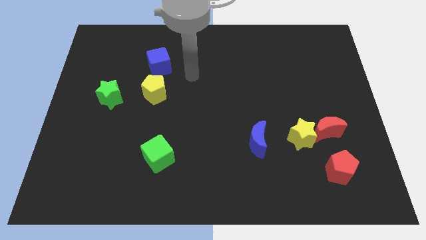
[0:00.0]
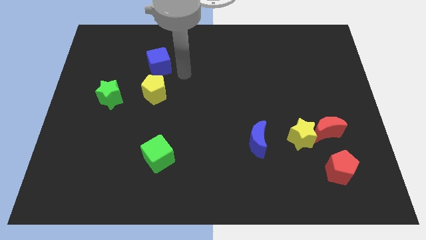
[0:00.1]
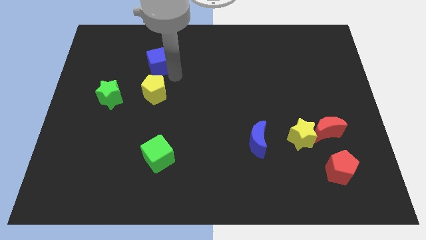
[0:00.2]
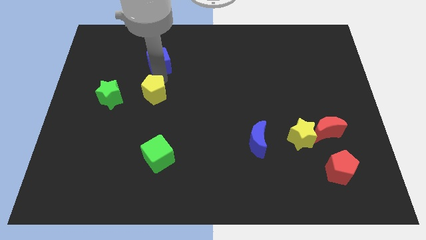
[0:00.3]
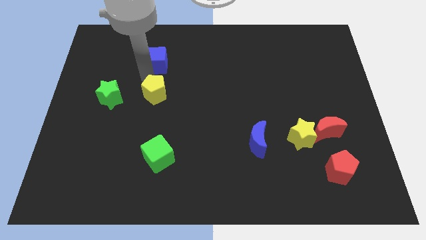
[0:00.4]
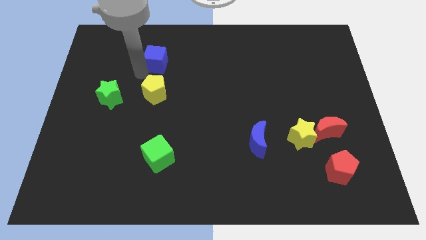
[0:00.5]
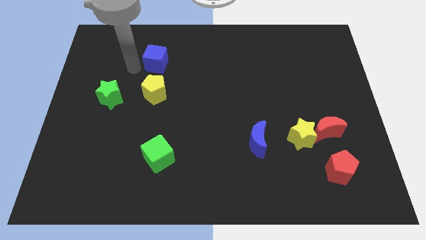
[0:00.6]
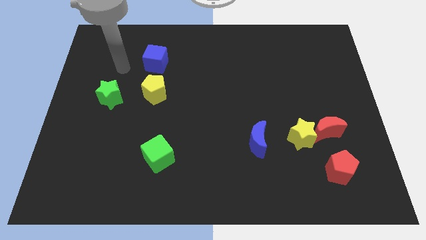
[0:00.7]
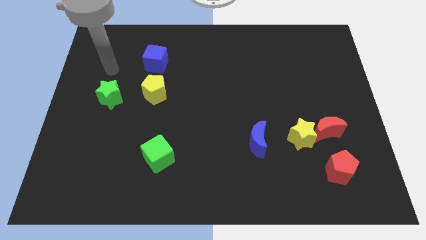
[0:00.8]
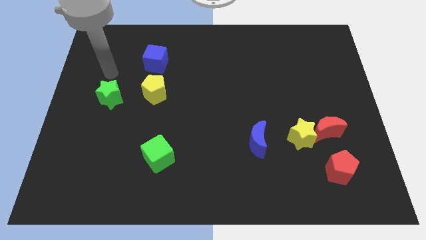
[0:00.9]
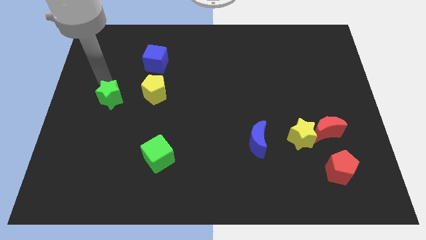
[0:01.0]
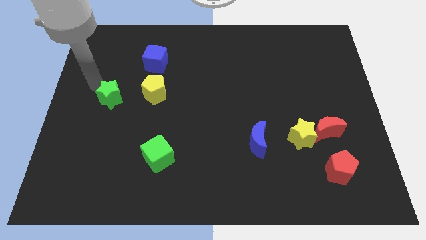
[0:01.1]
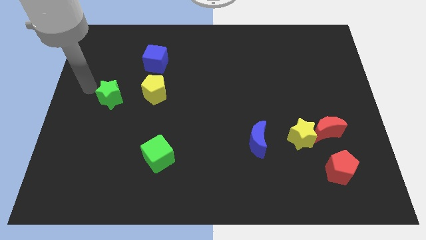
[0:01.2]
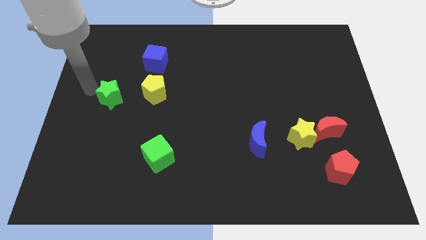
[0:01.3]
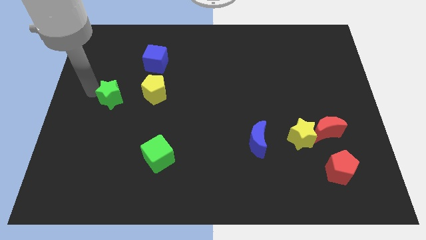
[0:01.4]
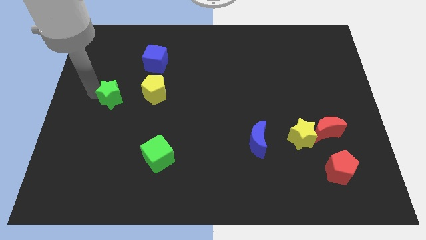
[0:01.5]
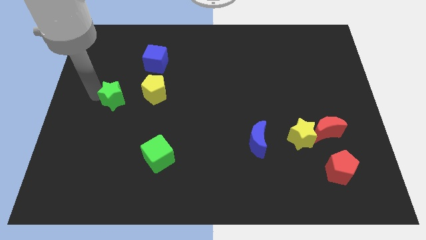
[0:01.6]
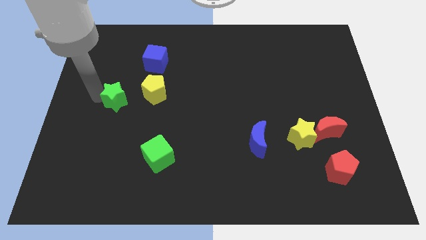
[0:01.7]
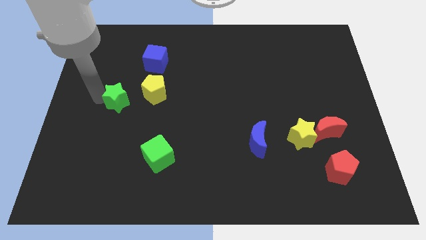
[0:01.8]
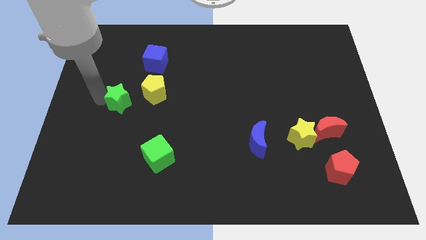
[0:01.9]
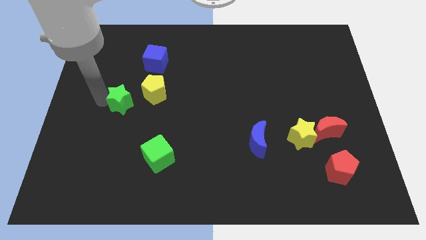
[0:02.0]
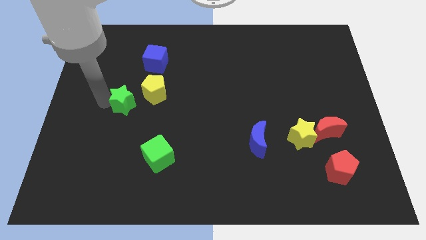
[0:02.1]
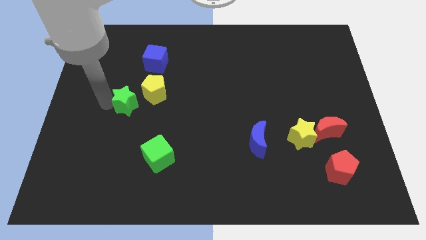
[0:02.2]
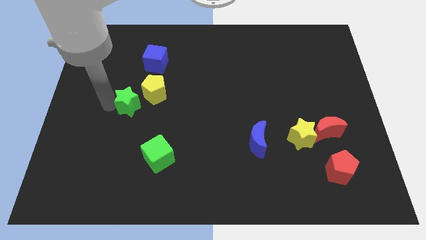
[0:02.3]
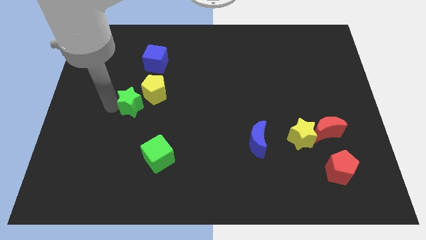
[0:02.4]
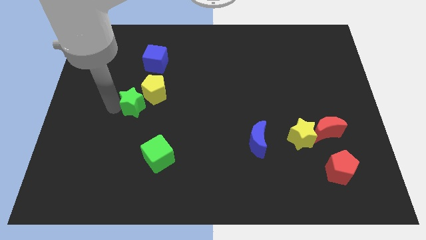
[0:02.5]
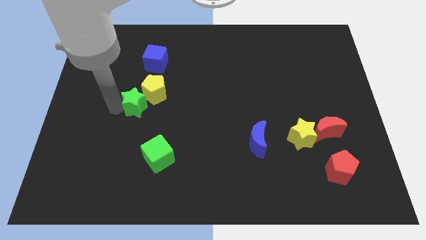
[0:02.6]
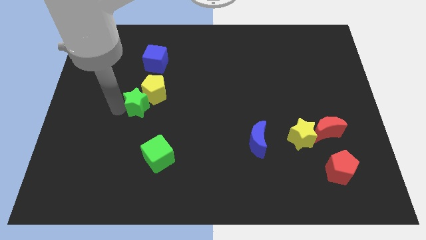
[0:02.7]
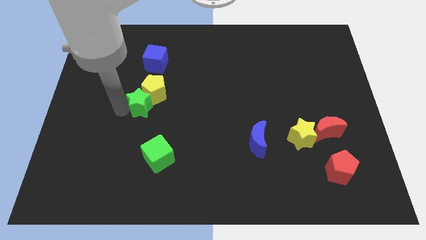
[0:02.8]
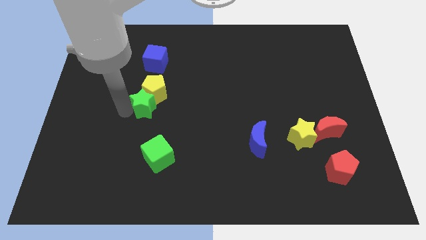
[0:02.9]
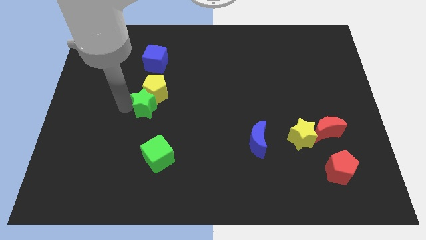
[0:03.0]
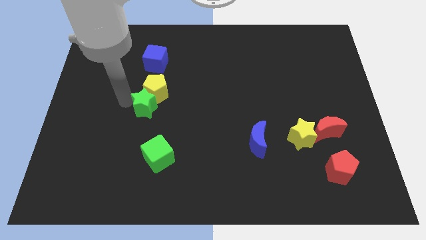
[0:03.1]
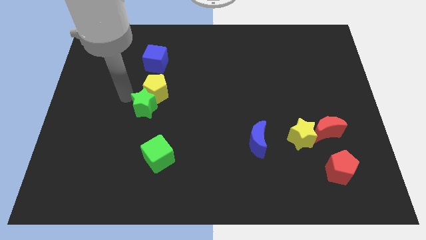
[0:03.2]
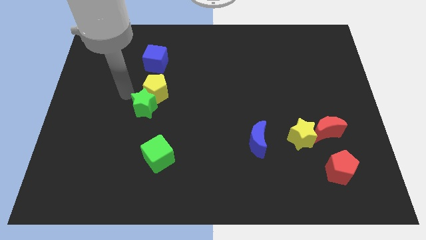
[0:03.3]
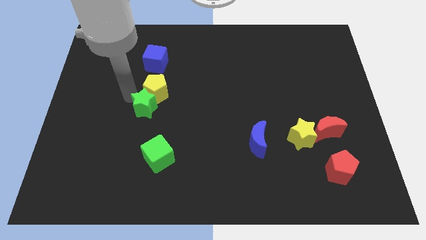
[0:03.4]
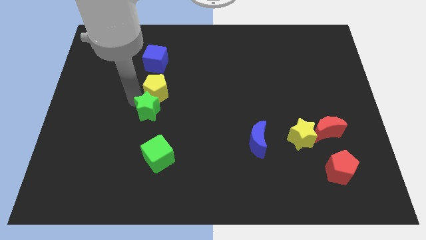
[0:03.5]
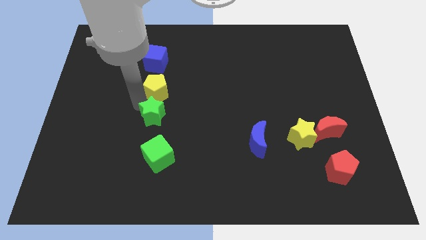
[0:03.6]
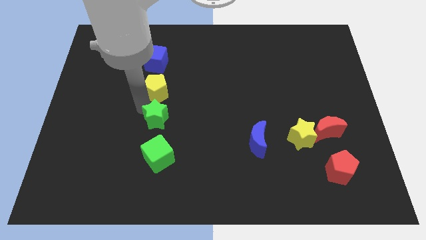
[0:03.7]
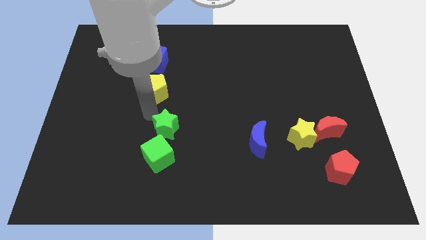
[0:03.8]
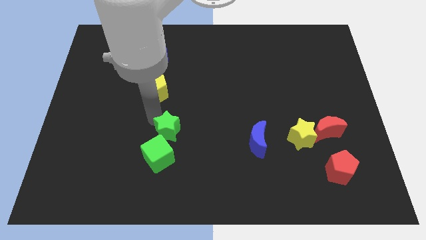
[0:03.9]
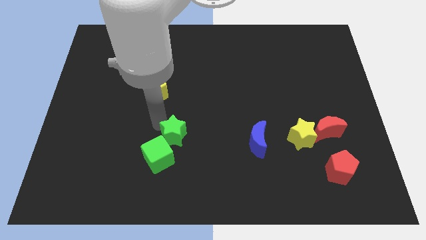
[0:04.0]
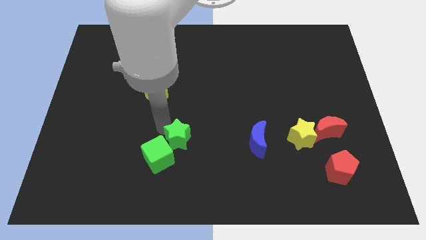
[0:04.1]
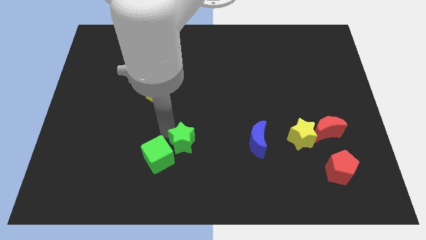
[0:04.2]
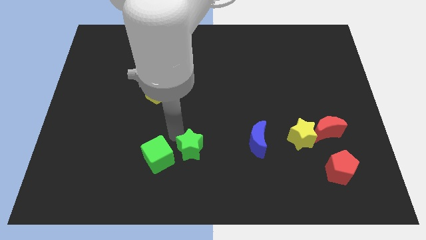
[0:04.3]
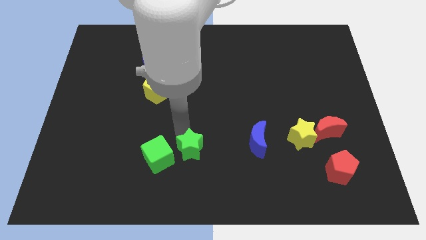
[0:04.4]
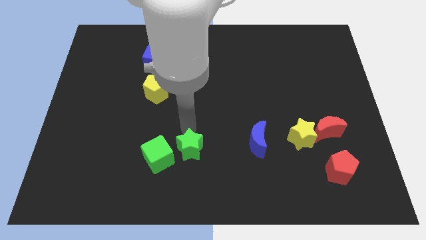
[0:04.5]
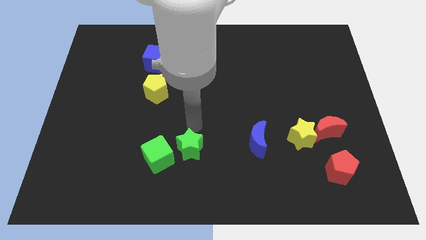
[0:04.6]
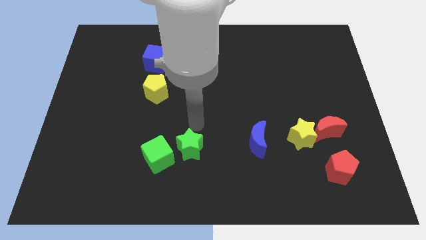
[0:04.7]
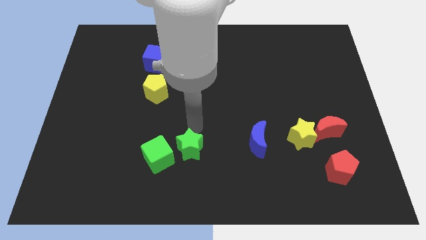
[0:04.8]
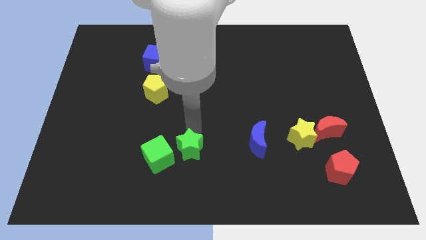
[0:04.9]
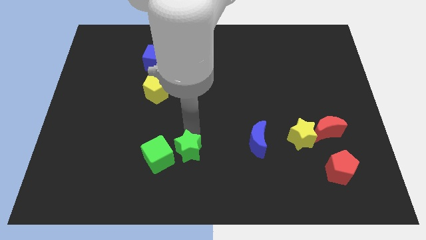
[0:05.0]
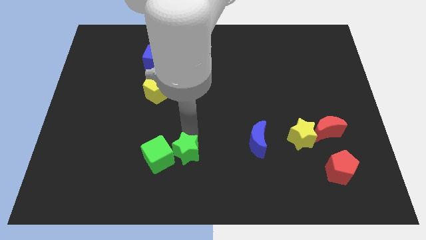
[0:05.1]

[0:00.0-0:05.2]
slide the green star diagonally down and to the right of the green cube

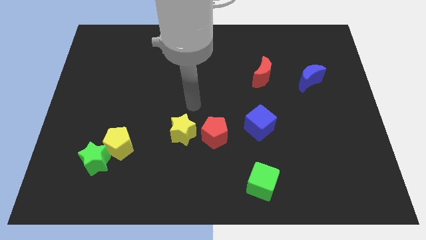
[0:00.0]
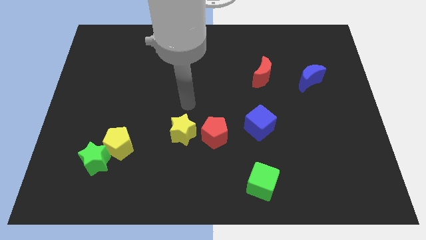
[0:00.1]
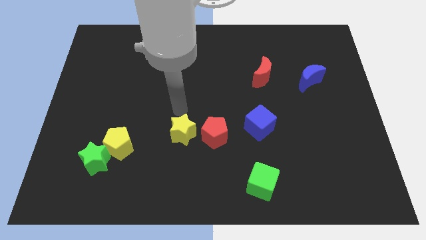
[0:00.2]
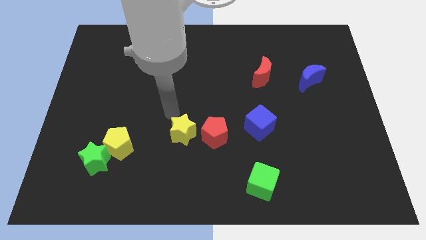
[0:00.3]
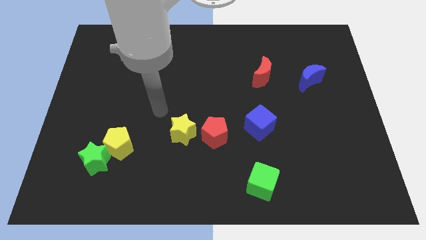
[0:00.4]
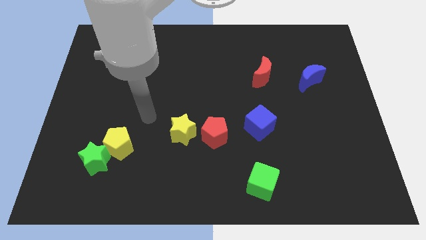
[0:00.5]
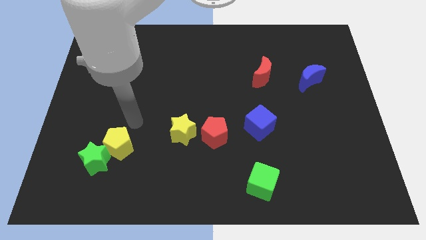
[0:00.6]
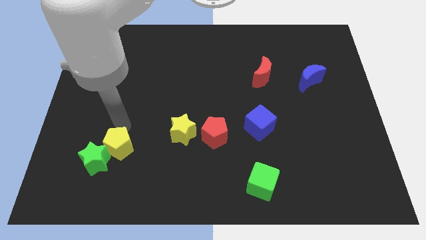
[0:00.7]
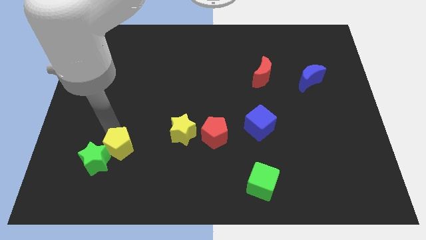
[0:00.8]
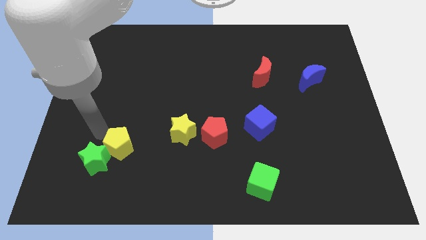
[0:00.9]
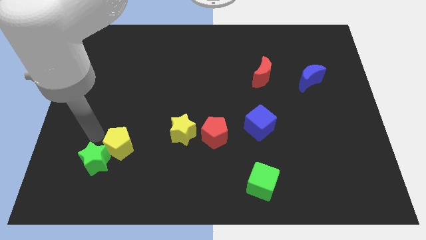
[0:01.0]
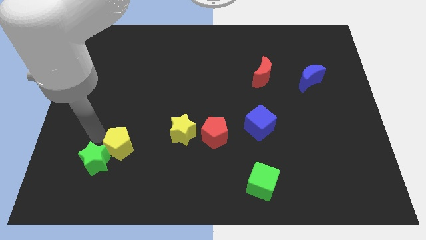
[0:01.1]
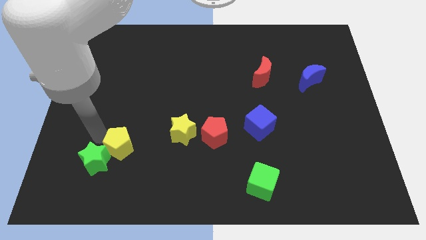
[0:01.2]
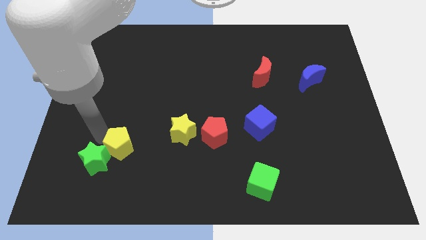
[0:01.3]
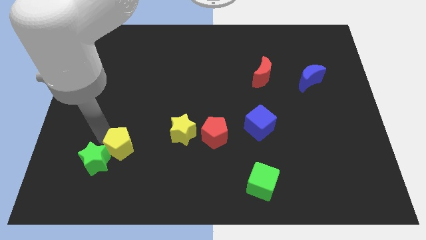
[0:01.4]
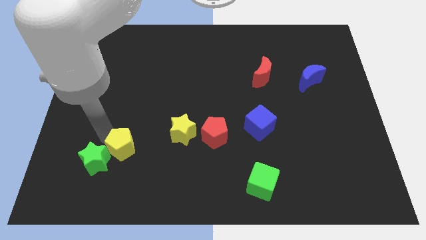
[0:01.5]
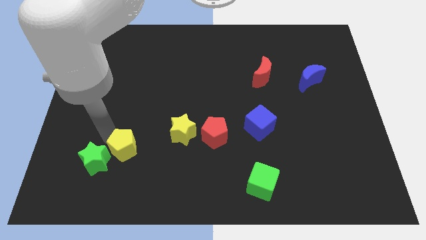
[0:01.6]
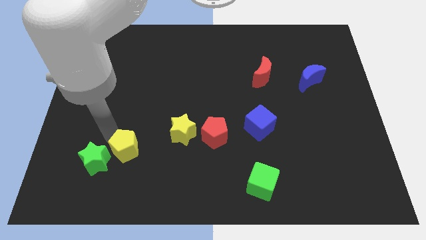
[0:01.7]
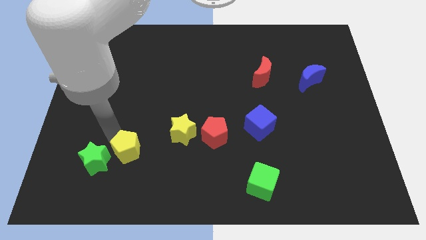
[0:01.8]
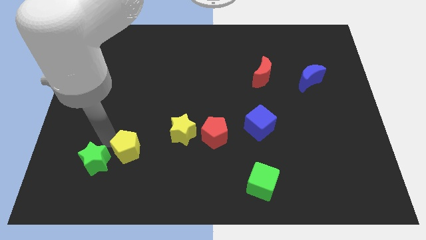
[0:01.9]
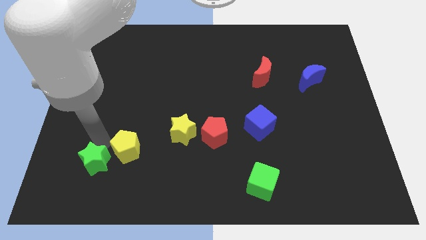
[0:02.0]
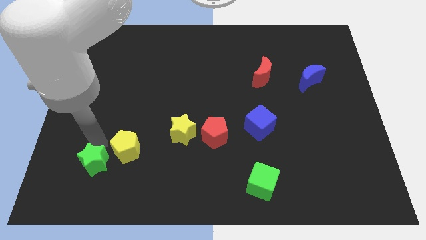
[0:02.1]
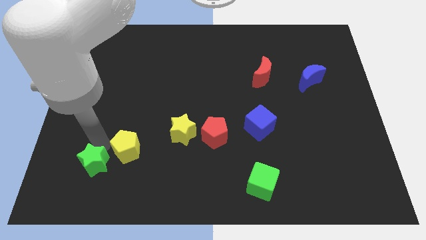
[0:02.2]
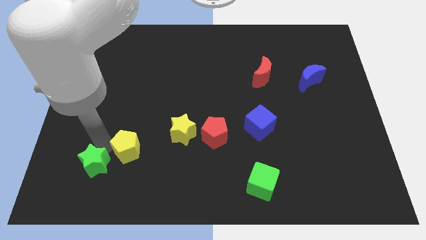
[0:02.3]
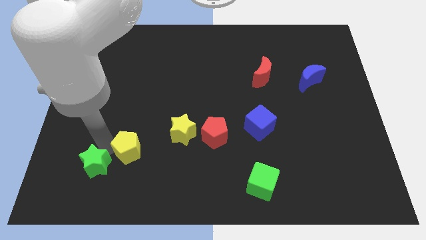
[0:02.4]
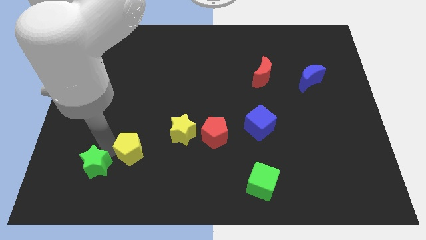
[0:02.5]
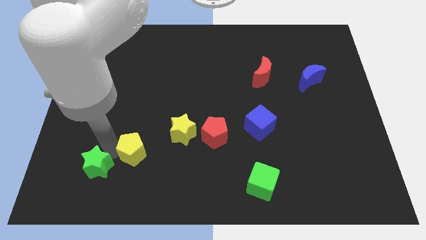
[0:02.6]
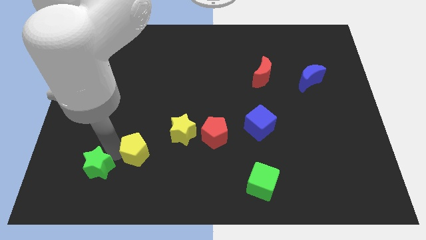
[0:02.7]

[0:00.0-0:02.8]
push the yellow pentagon diagonally down and to the left of the yellow star
